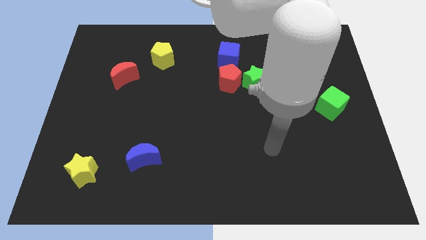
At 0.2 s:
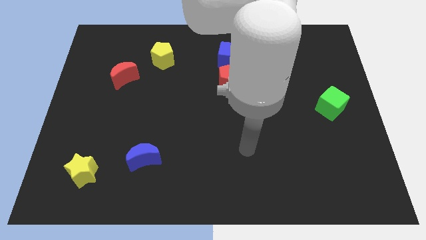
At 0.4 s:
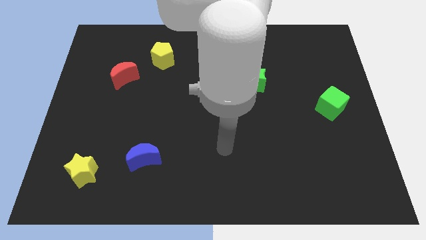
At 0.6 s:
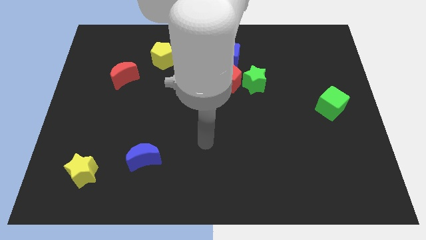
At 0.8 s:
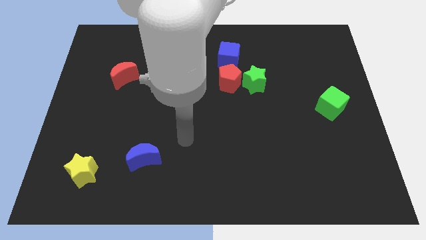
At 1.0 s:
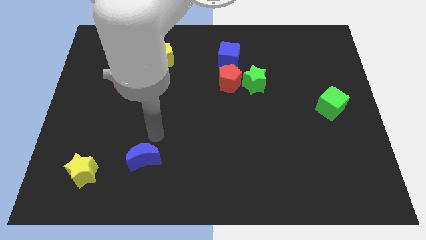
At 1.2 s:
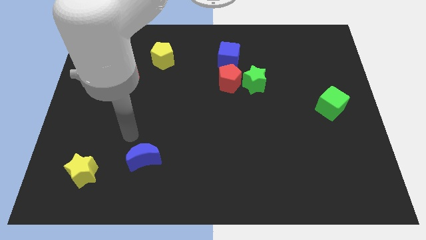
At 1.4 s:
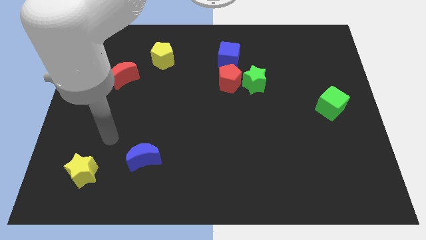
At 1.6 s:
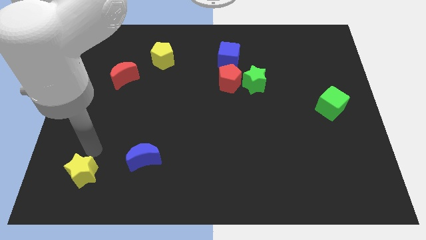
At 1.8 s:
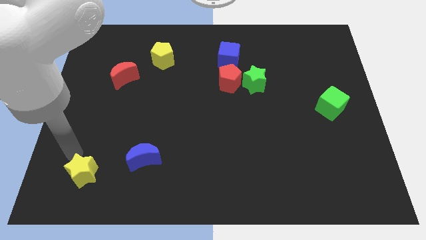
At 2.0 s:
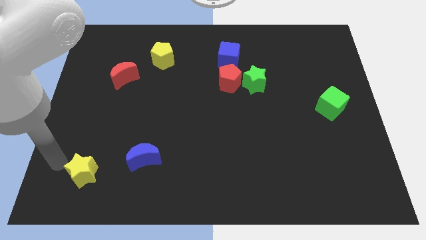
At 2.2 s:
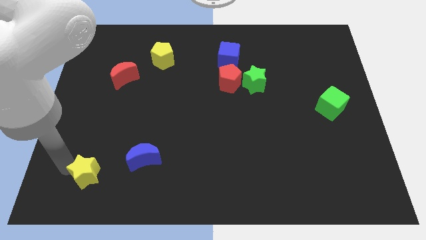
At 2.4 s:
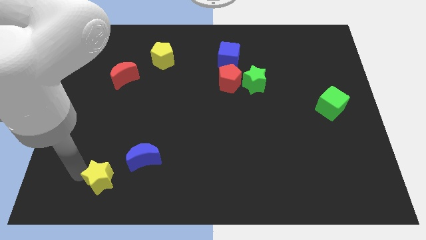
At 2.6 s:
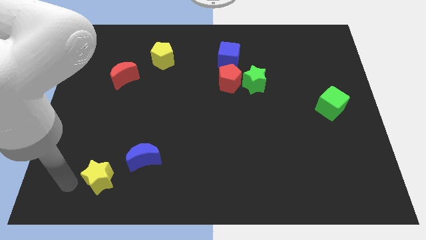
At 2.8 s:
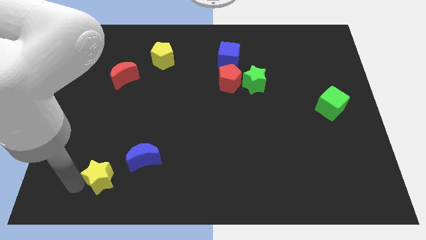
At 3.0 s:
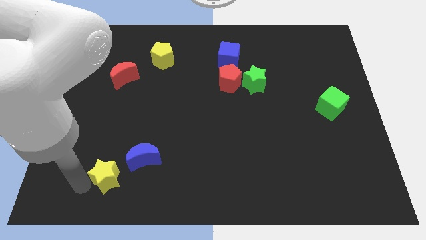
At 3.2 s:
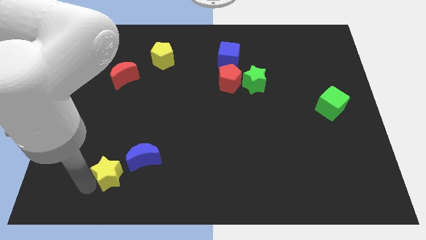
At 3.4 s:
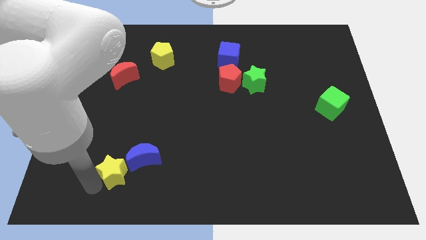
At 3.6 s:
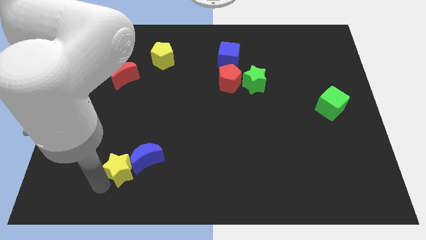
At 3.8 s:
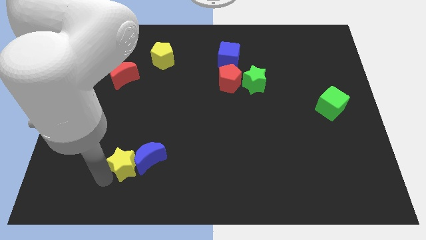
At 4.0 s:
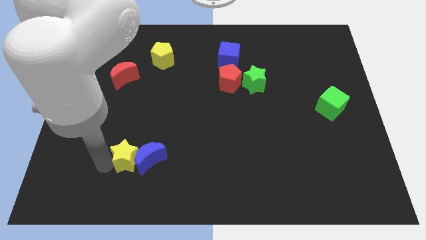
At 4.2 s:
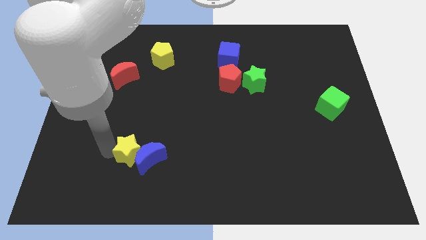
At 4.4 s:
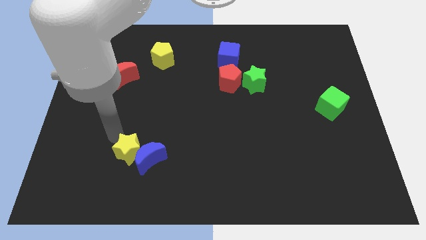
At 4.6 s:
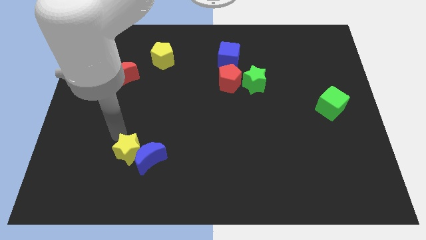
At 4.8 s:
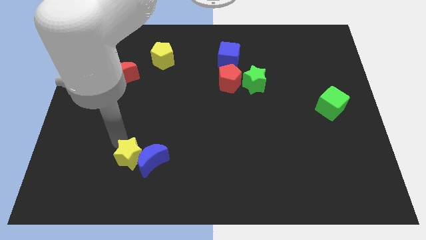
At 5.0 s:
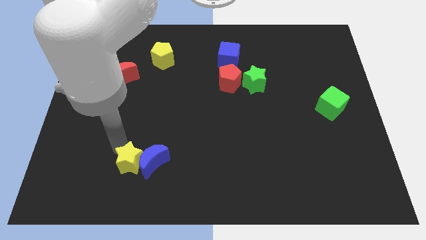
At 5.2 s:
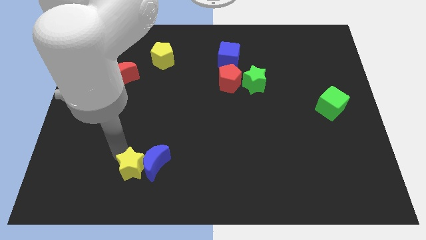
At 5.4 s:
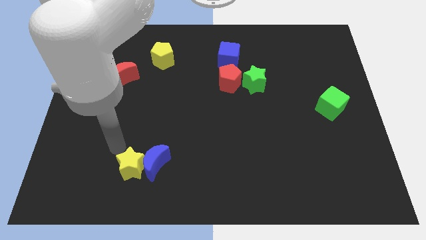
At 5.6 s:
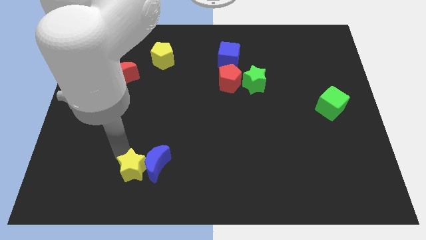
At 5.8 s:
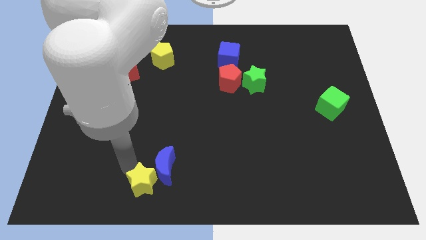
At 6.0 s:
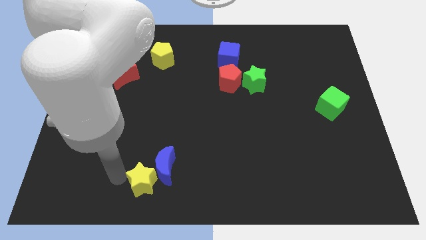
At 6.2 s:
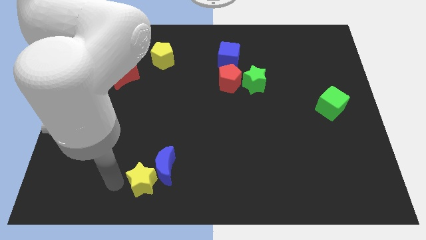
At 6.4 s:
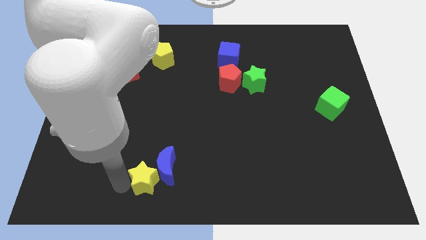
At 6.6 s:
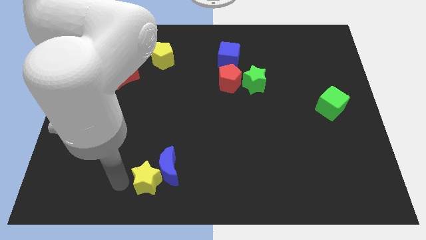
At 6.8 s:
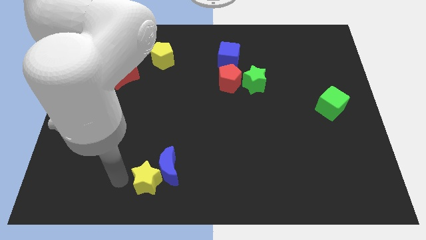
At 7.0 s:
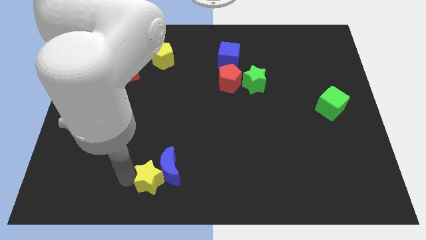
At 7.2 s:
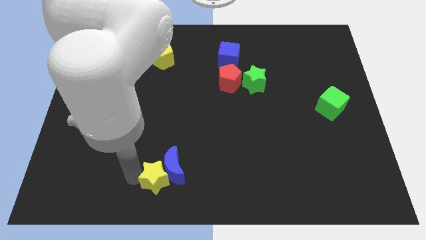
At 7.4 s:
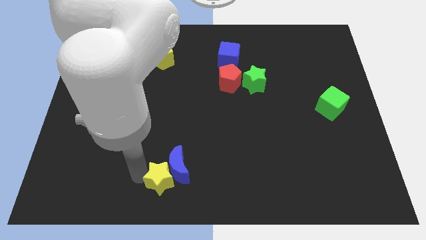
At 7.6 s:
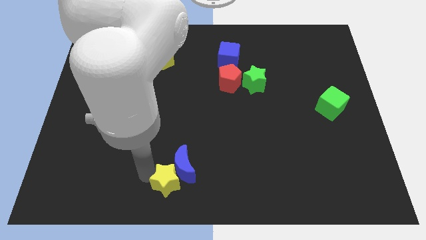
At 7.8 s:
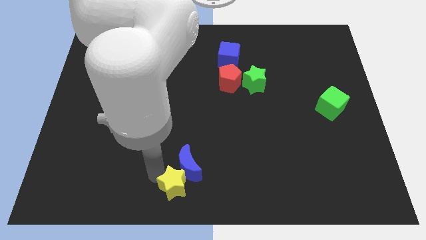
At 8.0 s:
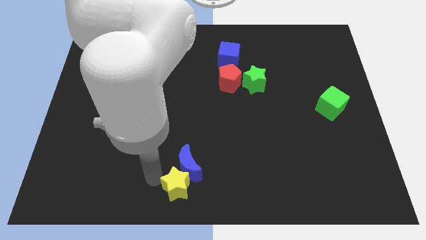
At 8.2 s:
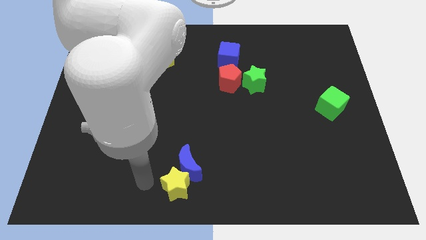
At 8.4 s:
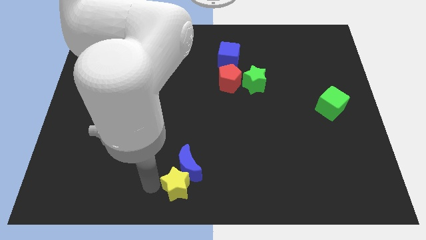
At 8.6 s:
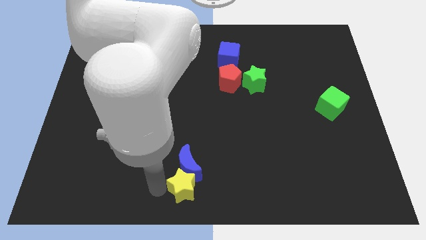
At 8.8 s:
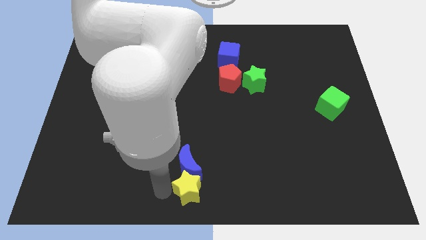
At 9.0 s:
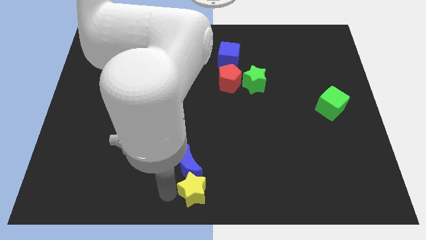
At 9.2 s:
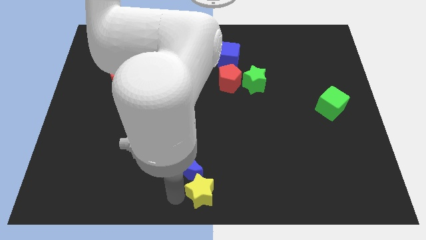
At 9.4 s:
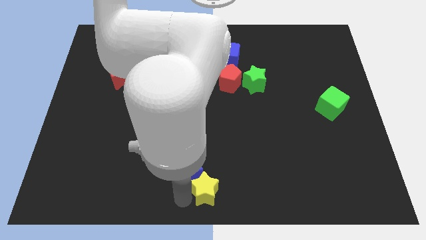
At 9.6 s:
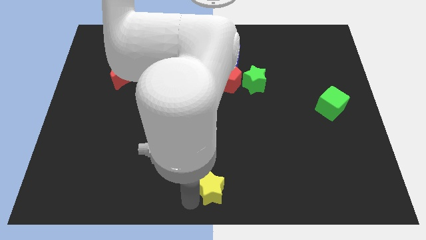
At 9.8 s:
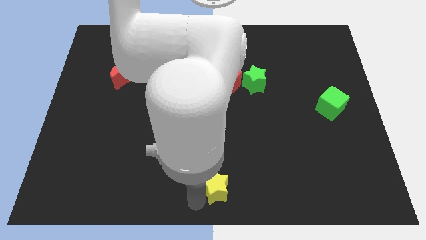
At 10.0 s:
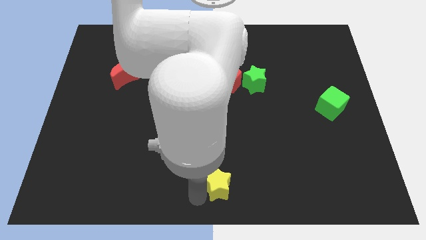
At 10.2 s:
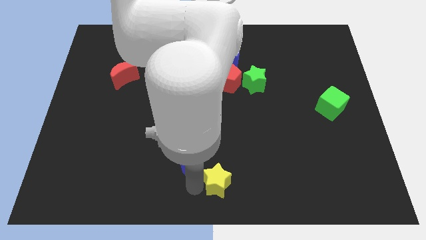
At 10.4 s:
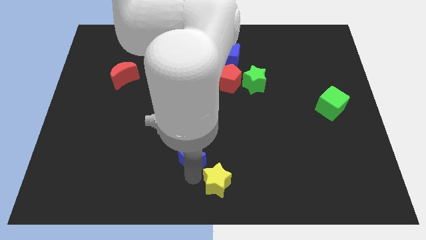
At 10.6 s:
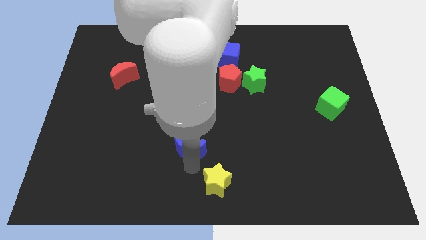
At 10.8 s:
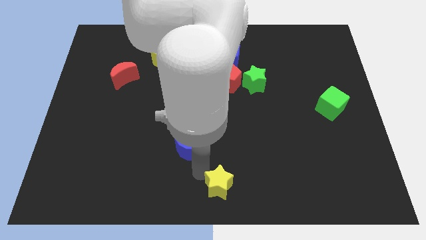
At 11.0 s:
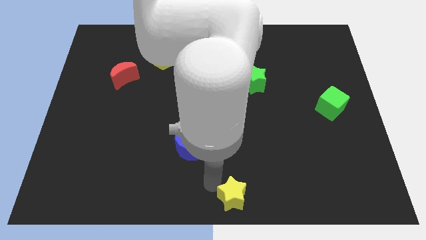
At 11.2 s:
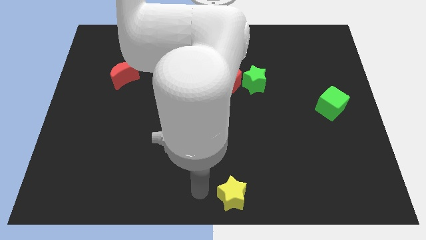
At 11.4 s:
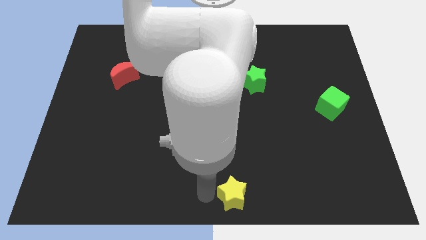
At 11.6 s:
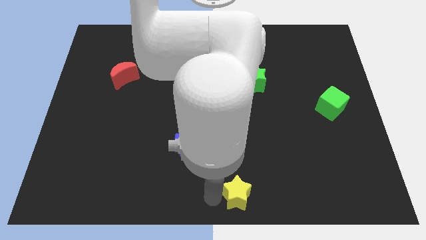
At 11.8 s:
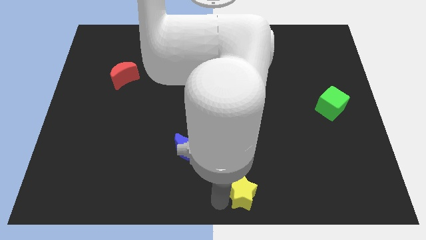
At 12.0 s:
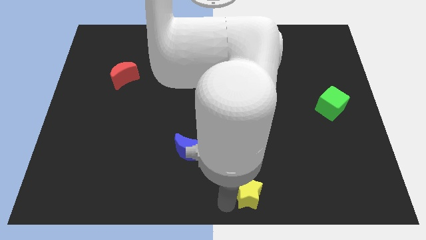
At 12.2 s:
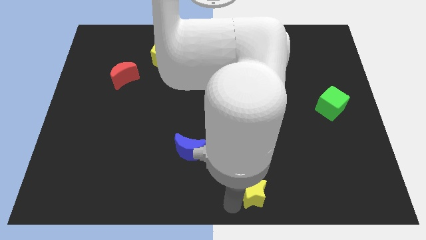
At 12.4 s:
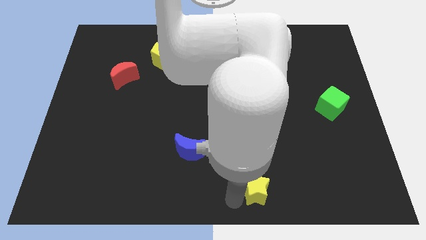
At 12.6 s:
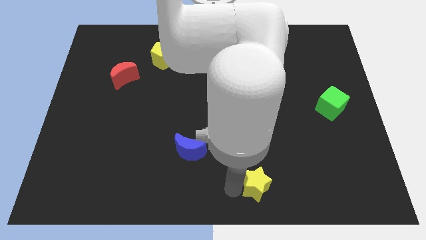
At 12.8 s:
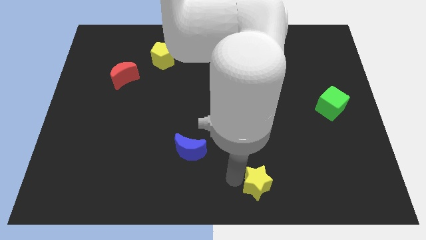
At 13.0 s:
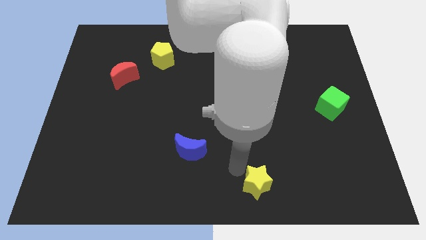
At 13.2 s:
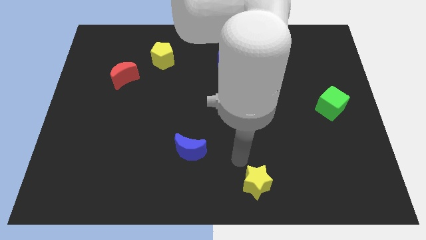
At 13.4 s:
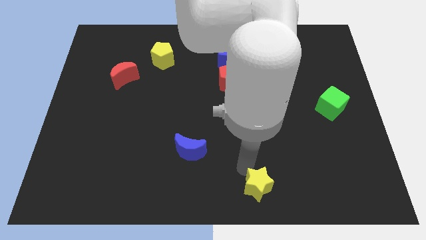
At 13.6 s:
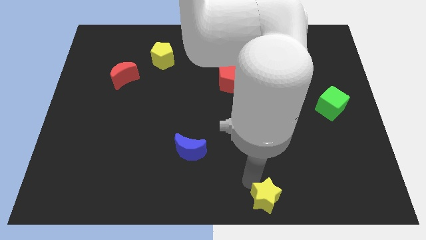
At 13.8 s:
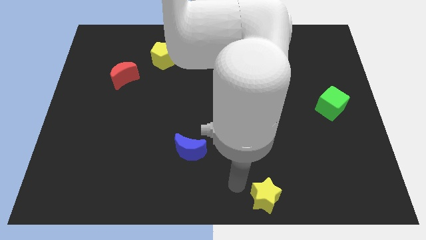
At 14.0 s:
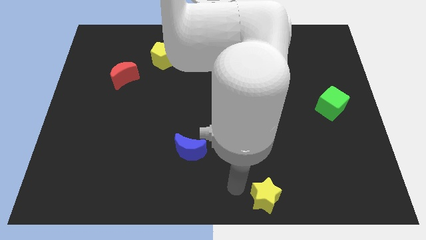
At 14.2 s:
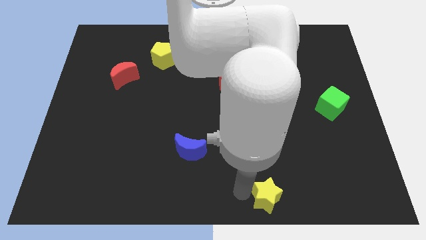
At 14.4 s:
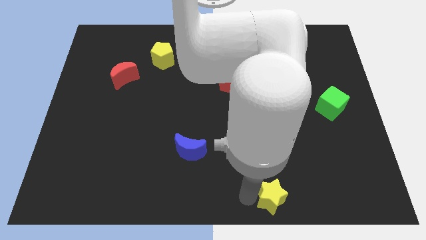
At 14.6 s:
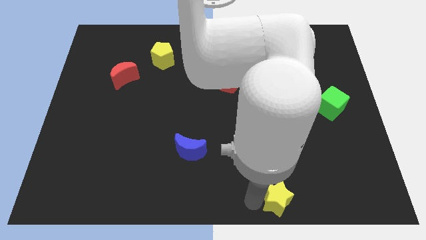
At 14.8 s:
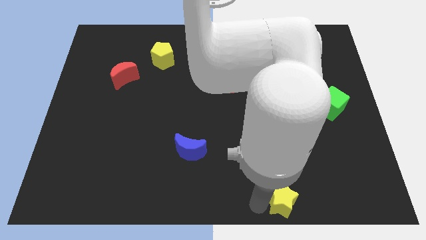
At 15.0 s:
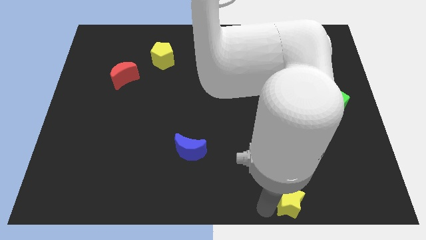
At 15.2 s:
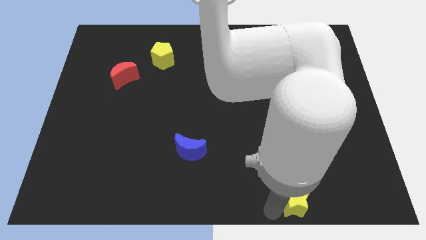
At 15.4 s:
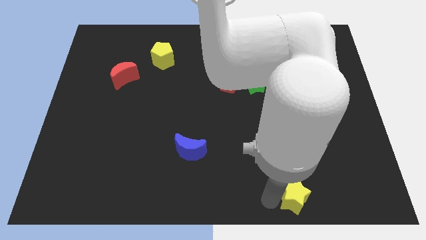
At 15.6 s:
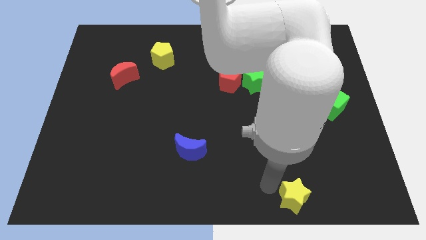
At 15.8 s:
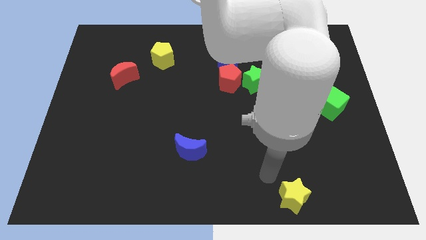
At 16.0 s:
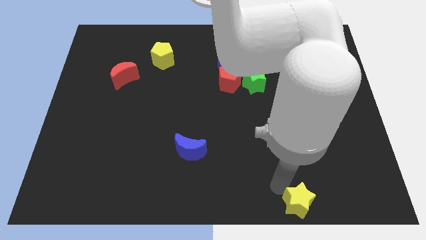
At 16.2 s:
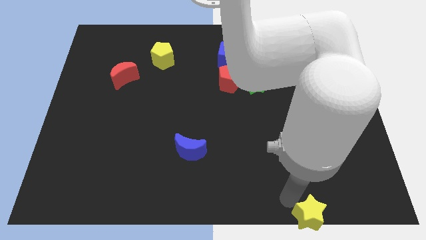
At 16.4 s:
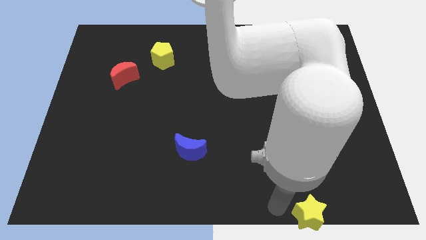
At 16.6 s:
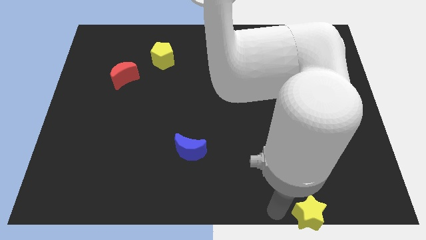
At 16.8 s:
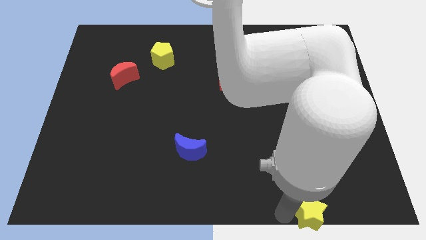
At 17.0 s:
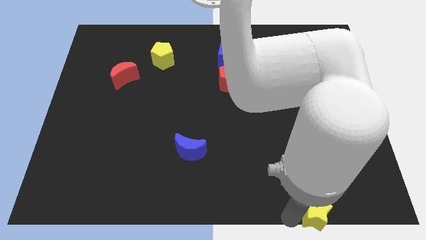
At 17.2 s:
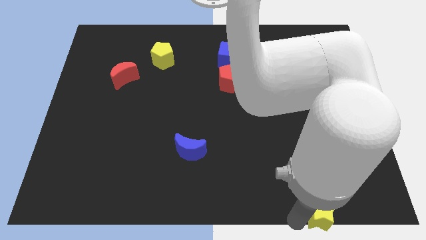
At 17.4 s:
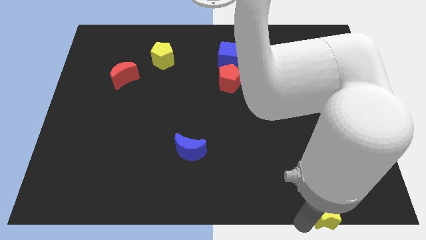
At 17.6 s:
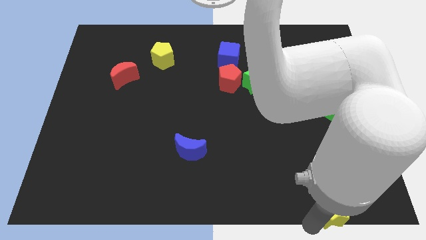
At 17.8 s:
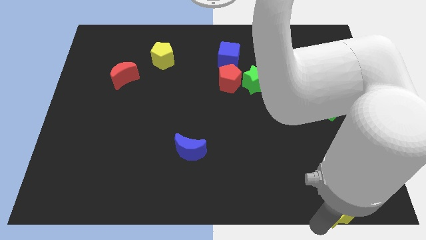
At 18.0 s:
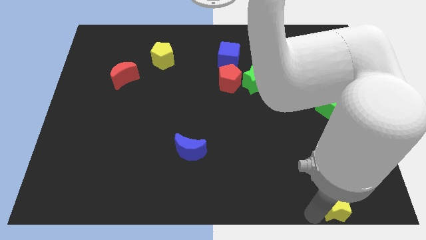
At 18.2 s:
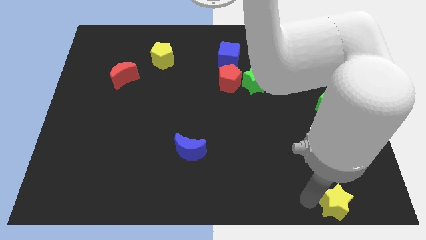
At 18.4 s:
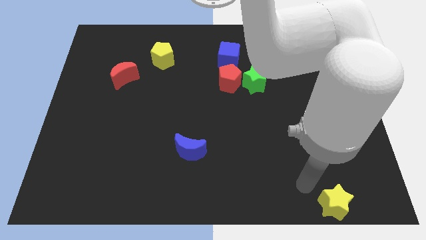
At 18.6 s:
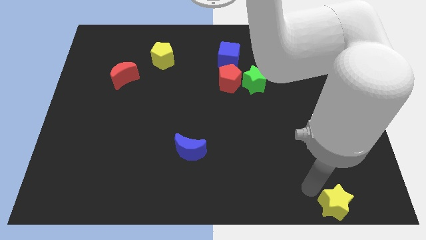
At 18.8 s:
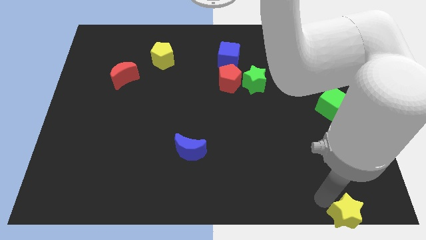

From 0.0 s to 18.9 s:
slide the yellow star to the bottom right of the board
